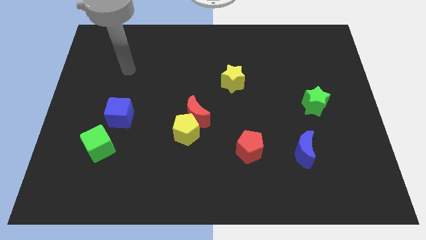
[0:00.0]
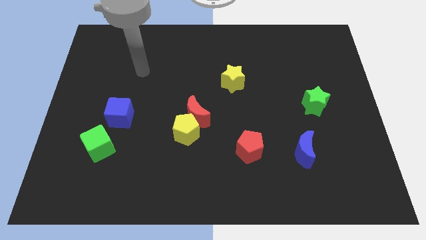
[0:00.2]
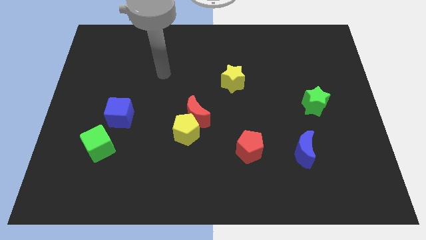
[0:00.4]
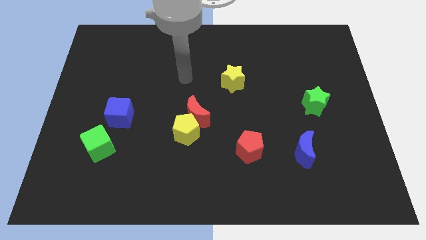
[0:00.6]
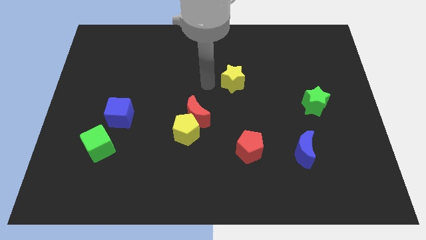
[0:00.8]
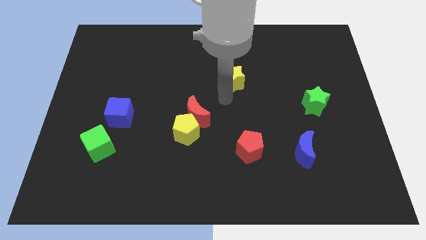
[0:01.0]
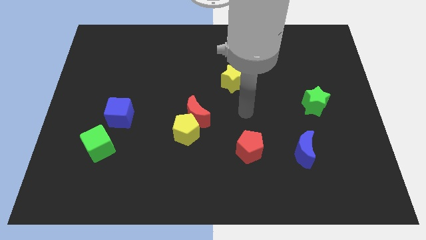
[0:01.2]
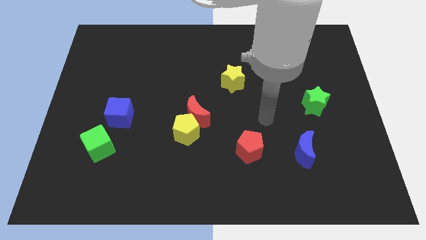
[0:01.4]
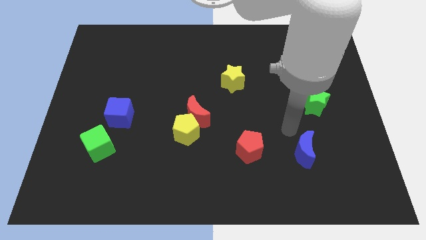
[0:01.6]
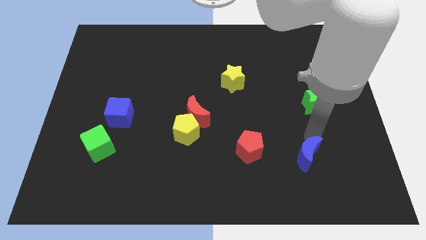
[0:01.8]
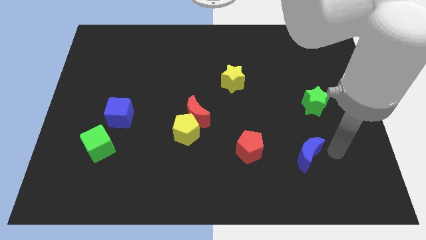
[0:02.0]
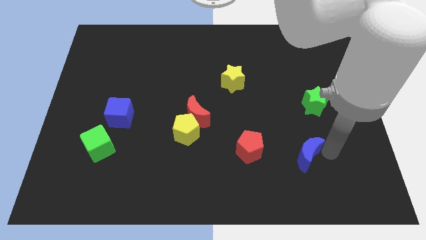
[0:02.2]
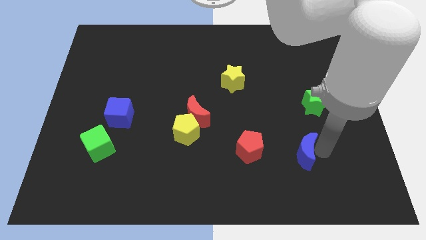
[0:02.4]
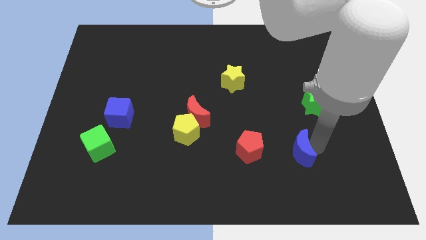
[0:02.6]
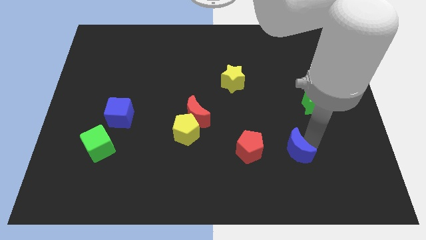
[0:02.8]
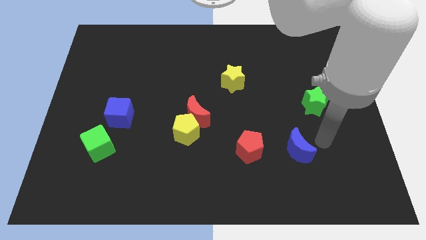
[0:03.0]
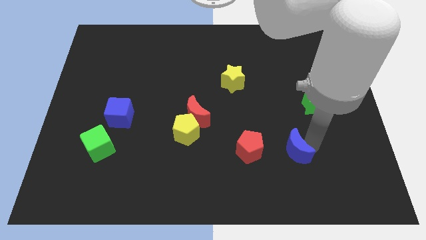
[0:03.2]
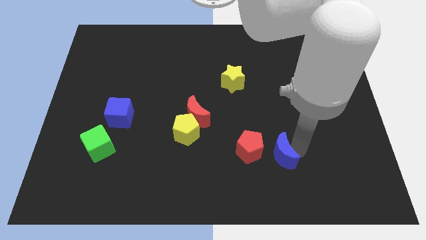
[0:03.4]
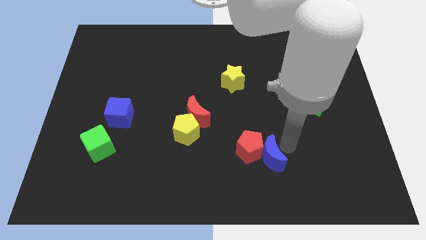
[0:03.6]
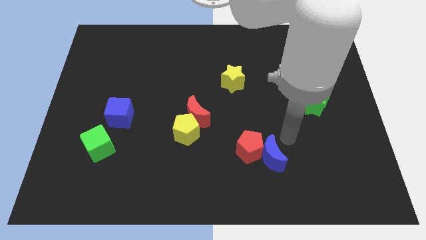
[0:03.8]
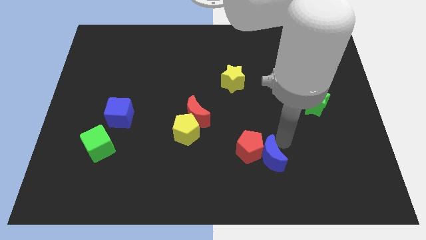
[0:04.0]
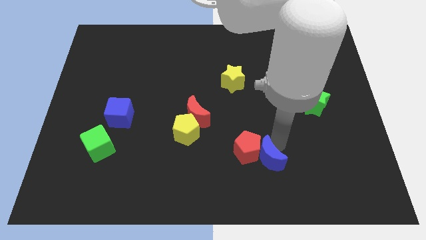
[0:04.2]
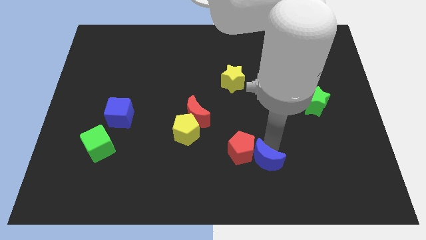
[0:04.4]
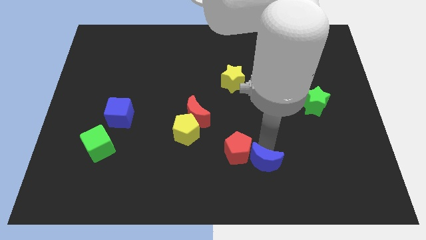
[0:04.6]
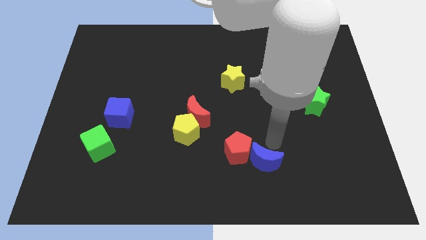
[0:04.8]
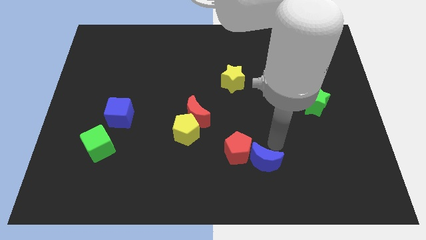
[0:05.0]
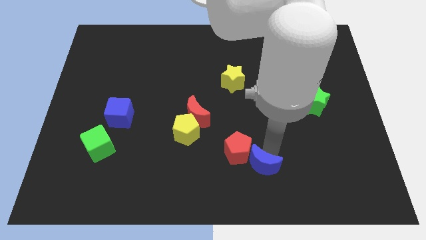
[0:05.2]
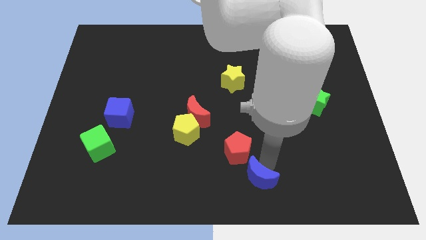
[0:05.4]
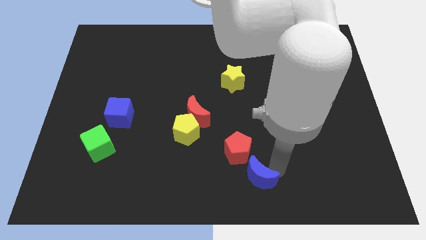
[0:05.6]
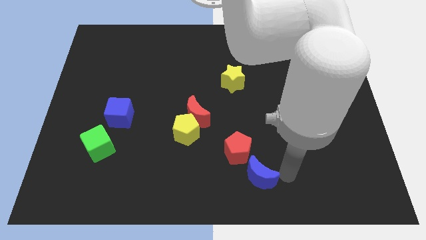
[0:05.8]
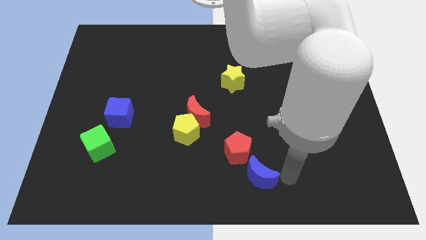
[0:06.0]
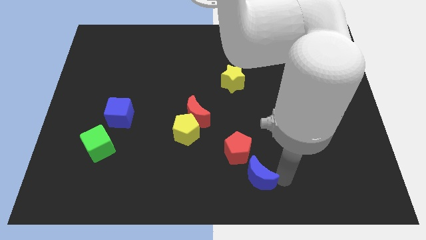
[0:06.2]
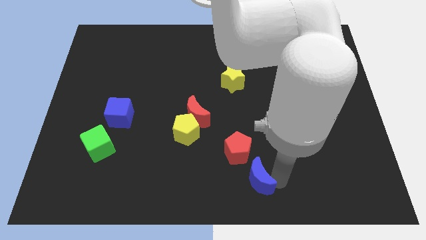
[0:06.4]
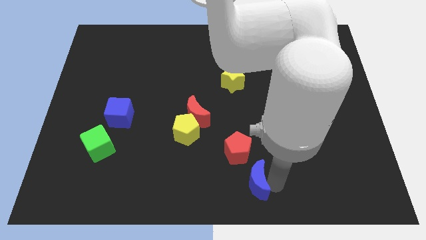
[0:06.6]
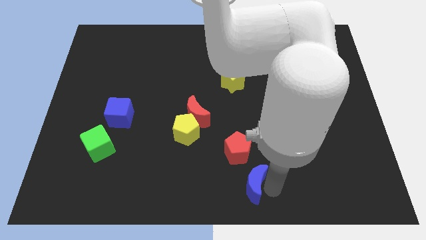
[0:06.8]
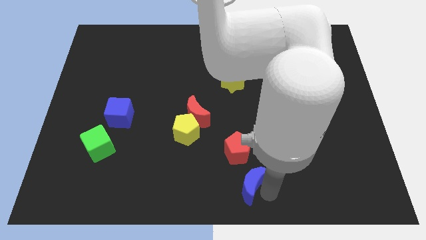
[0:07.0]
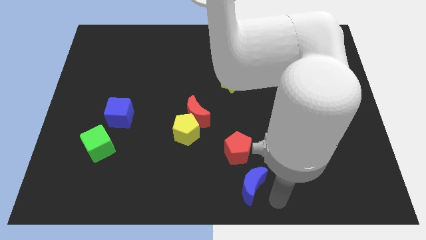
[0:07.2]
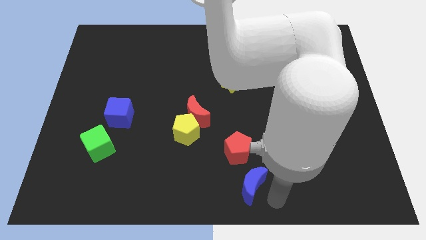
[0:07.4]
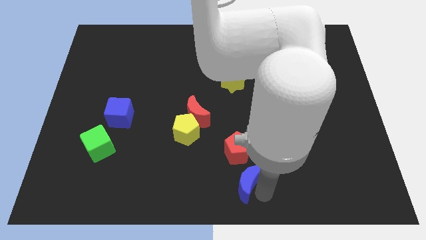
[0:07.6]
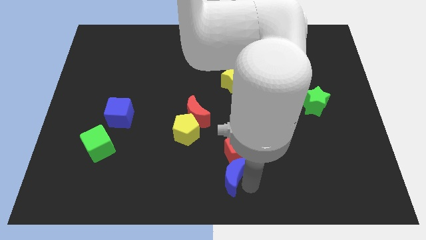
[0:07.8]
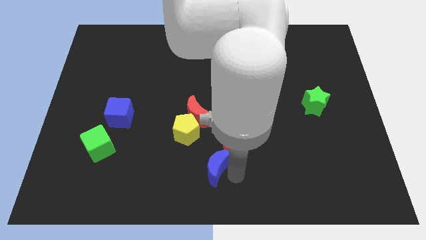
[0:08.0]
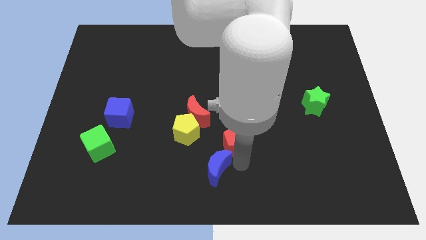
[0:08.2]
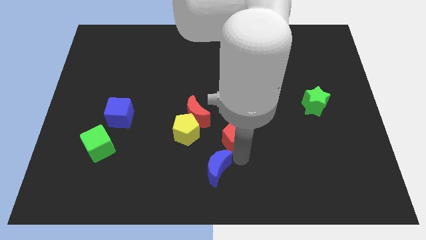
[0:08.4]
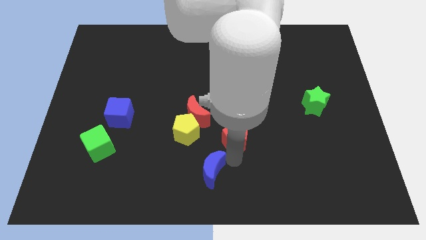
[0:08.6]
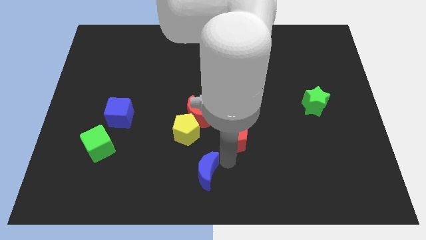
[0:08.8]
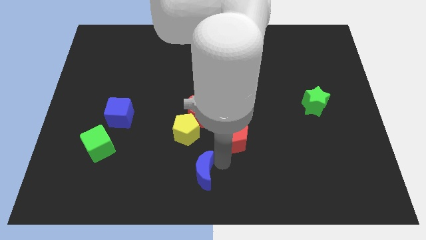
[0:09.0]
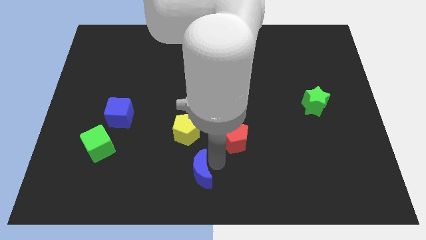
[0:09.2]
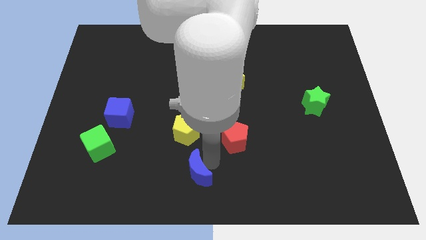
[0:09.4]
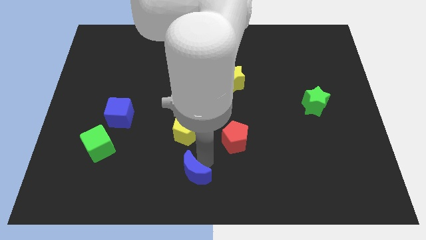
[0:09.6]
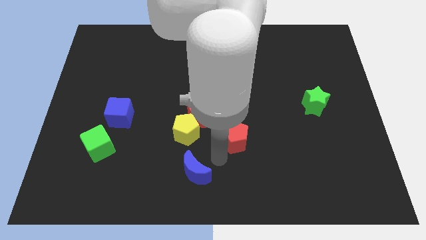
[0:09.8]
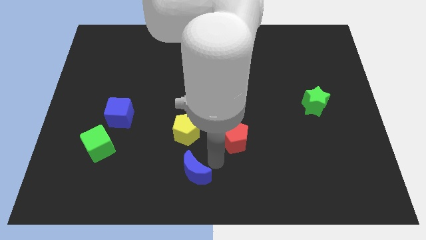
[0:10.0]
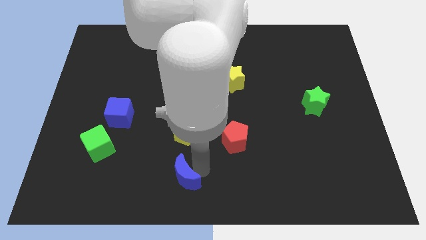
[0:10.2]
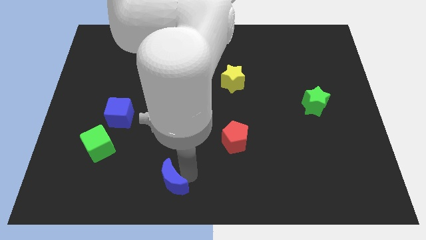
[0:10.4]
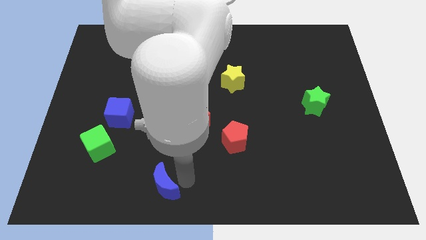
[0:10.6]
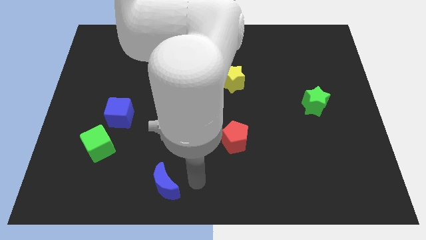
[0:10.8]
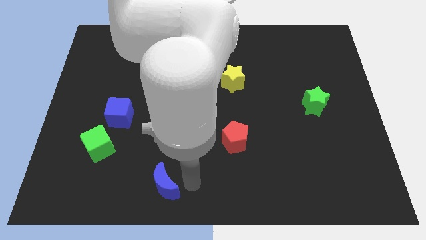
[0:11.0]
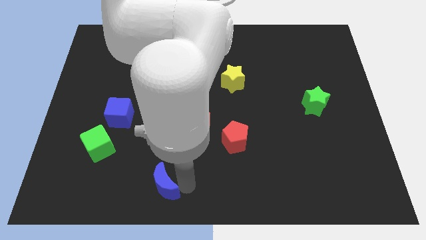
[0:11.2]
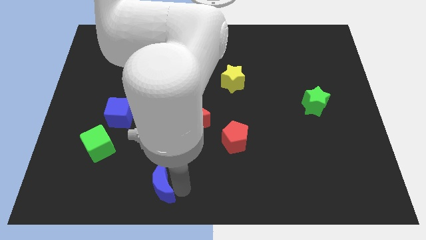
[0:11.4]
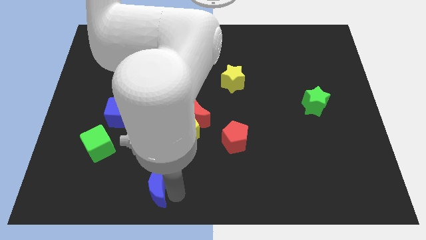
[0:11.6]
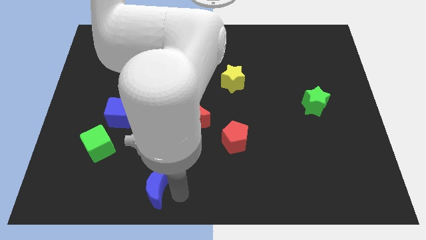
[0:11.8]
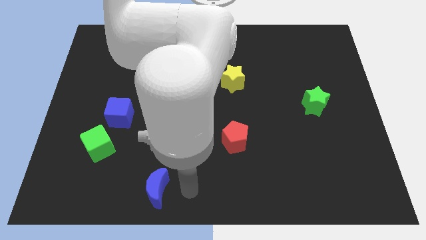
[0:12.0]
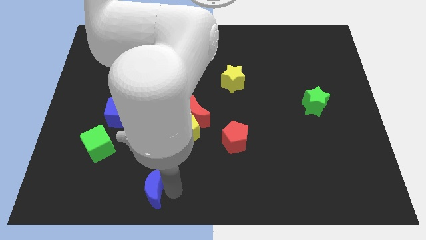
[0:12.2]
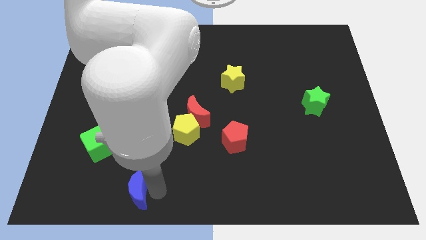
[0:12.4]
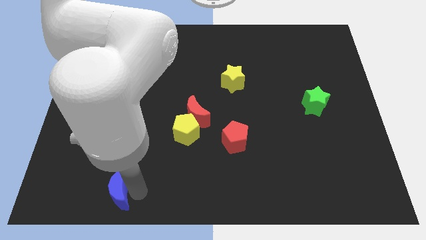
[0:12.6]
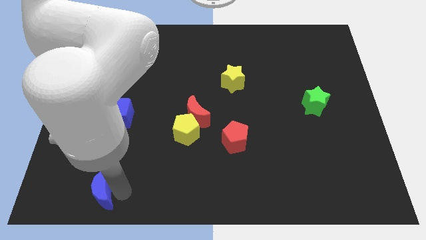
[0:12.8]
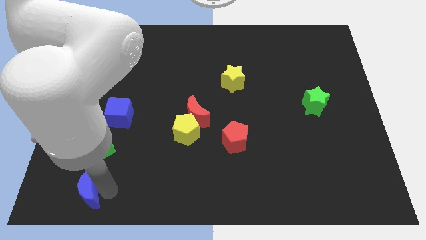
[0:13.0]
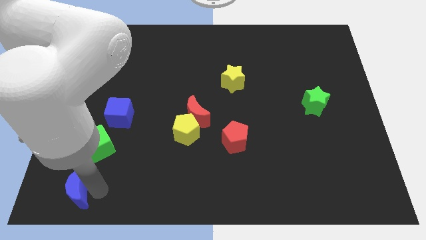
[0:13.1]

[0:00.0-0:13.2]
slide the blue moon to the bottom left of the board
